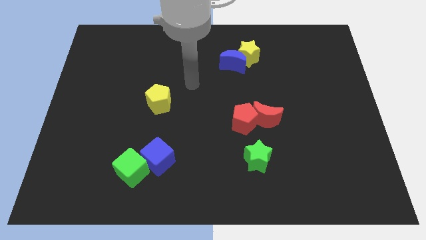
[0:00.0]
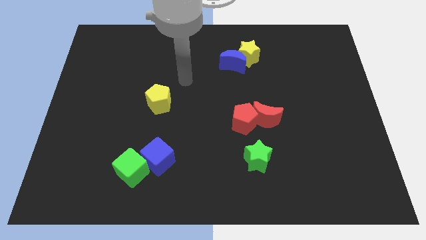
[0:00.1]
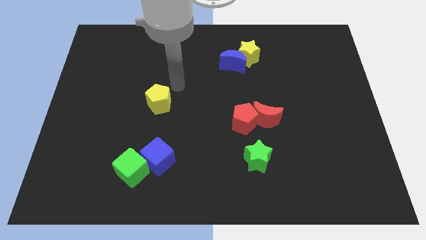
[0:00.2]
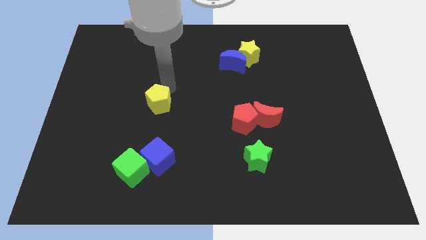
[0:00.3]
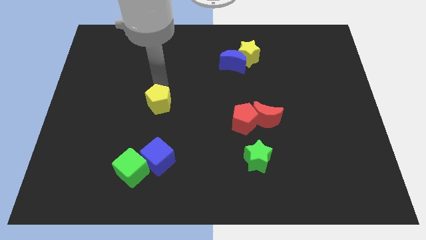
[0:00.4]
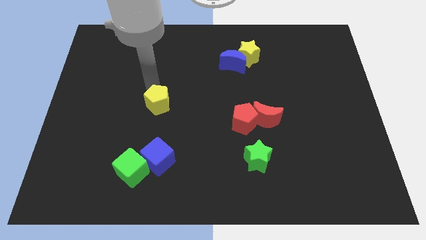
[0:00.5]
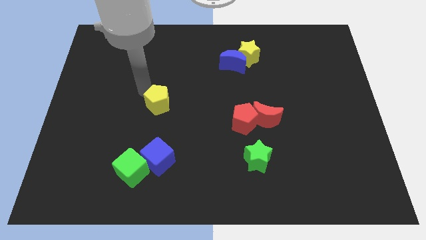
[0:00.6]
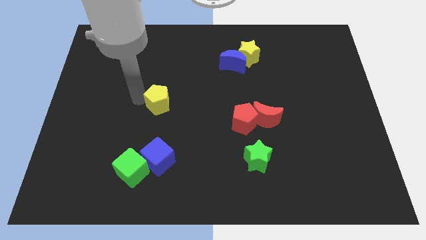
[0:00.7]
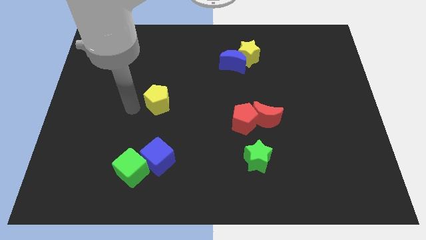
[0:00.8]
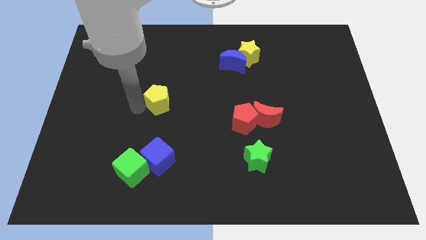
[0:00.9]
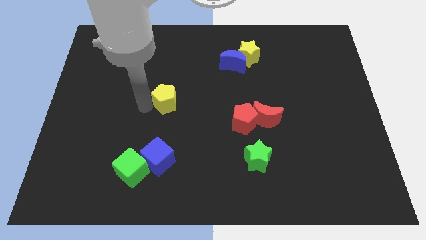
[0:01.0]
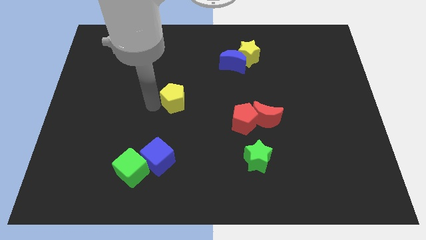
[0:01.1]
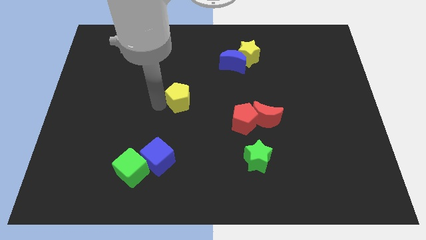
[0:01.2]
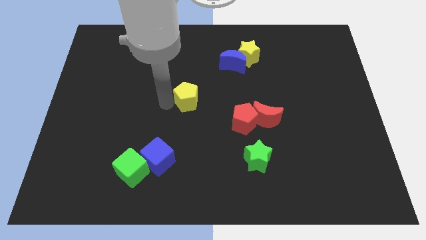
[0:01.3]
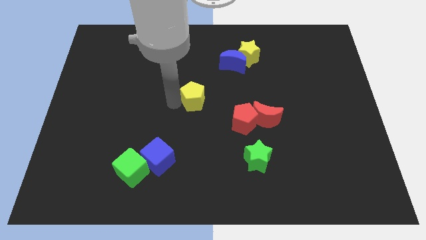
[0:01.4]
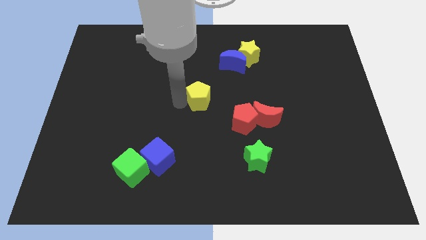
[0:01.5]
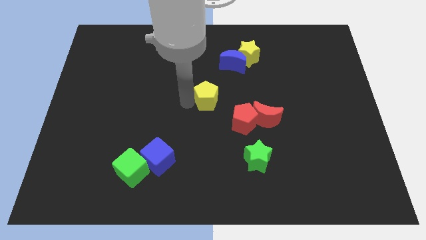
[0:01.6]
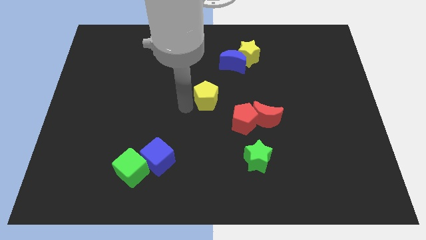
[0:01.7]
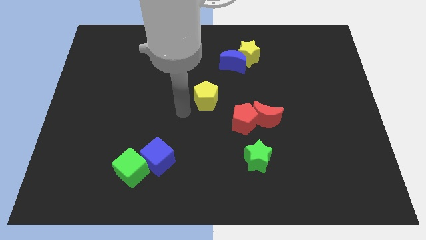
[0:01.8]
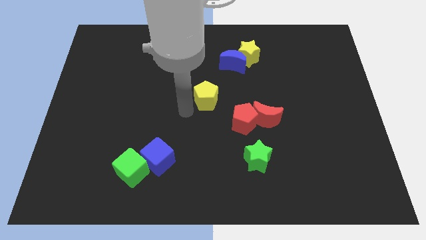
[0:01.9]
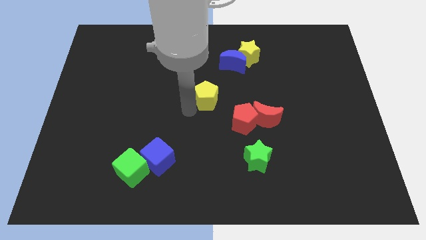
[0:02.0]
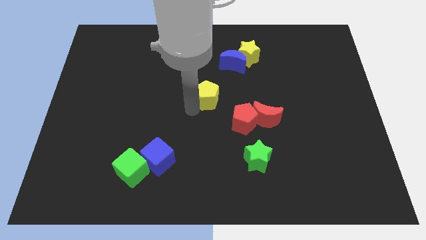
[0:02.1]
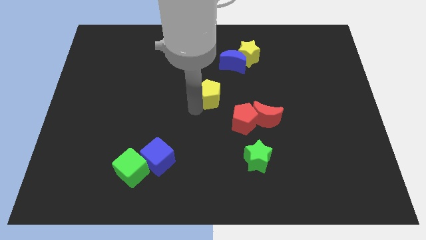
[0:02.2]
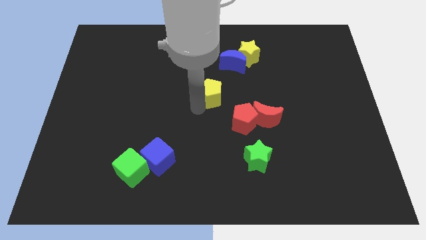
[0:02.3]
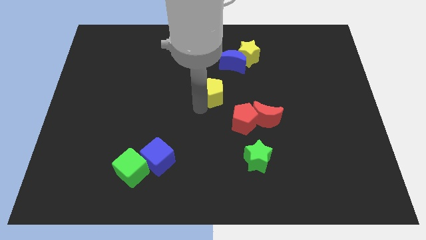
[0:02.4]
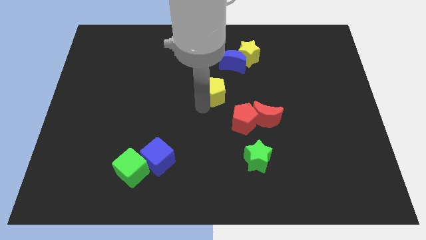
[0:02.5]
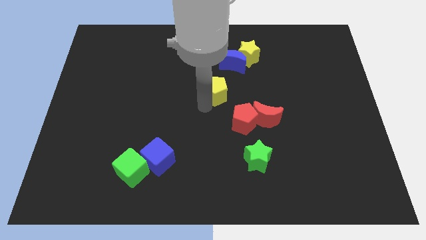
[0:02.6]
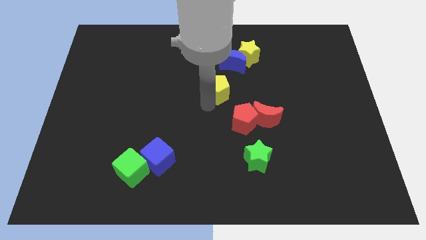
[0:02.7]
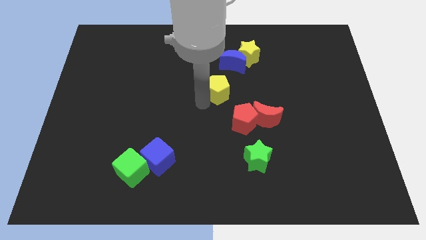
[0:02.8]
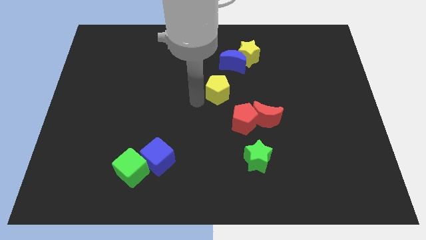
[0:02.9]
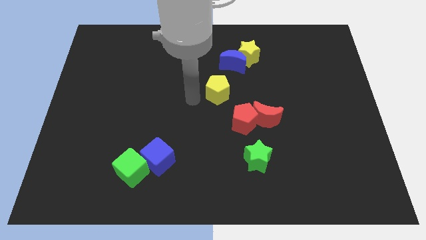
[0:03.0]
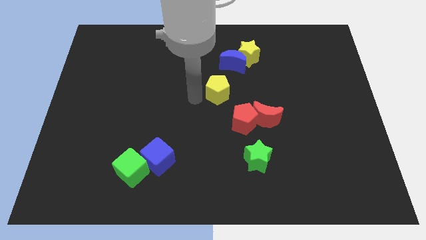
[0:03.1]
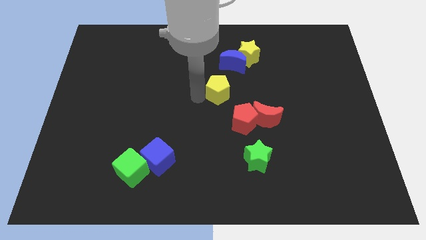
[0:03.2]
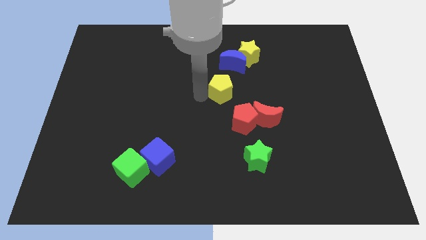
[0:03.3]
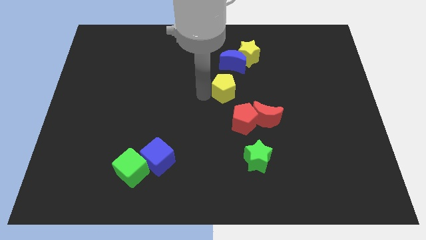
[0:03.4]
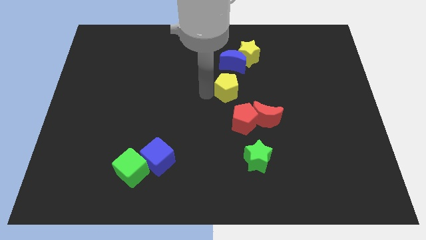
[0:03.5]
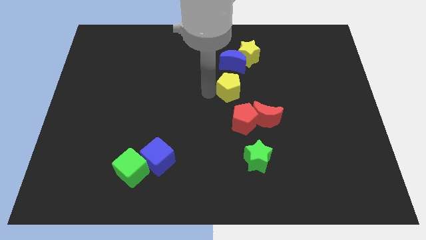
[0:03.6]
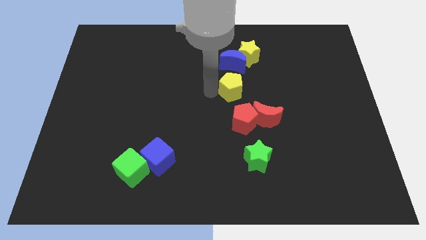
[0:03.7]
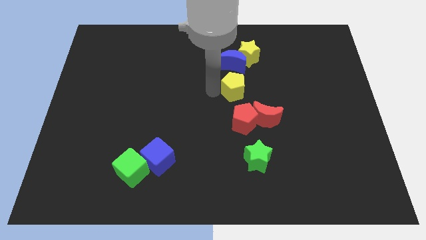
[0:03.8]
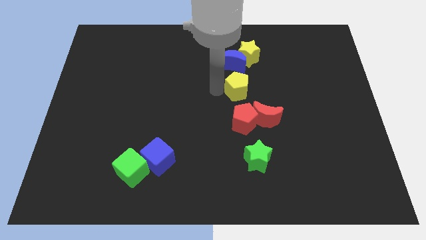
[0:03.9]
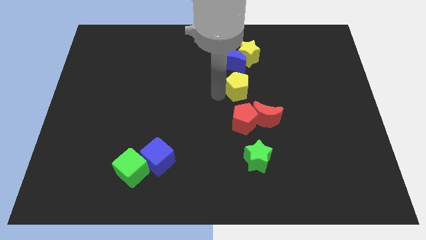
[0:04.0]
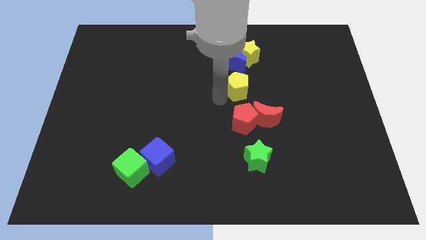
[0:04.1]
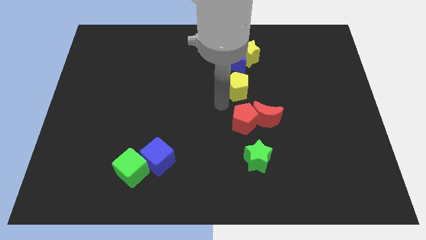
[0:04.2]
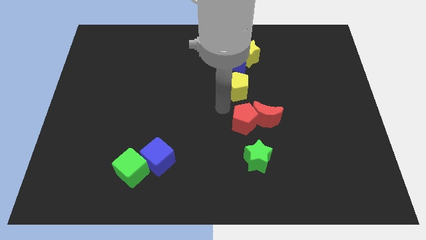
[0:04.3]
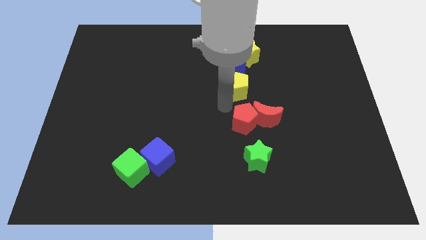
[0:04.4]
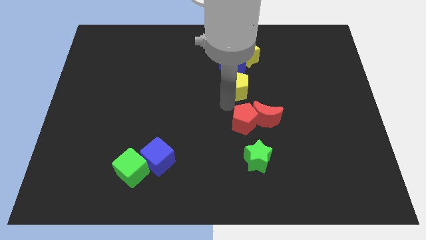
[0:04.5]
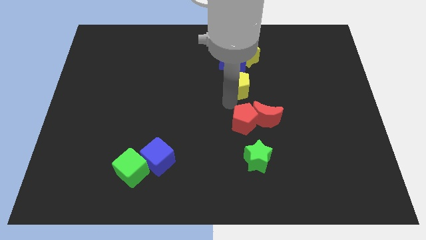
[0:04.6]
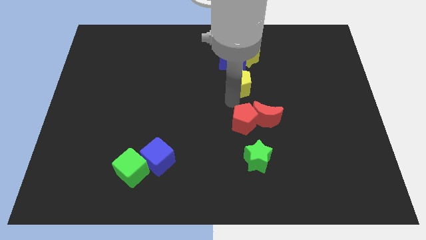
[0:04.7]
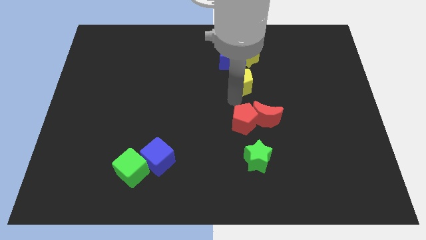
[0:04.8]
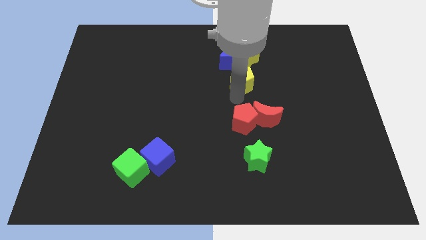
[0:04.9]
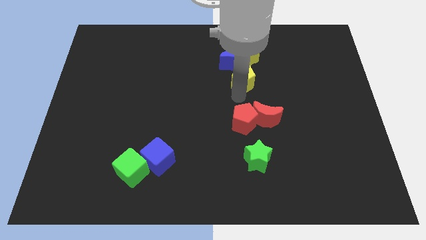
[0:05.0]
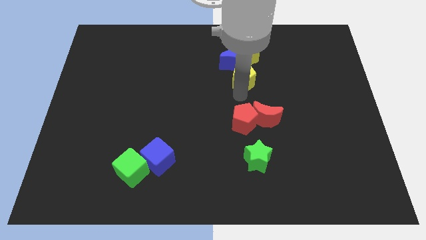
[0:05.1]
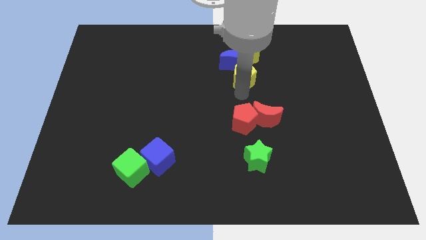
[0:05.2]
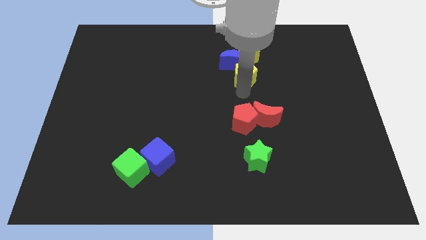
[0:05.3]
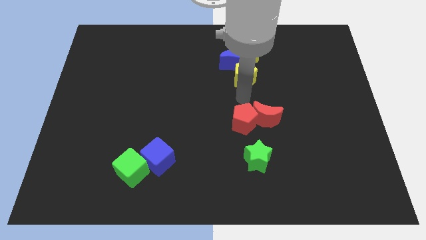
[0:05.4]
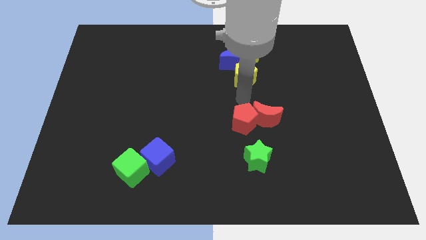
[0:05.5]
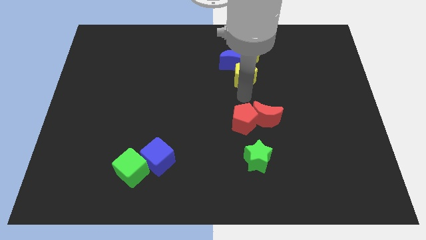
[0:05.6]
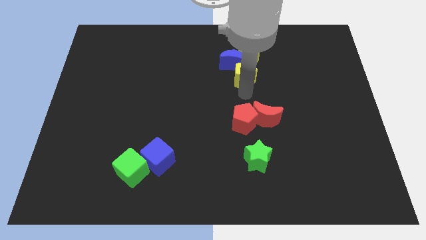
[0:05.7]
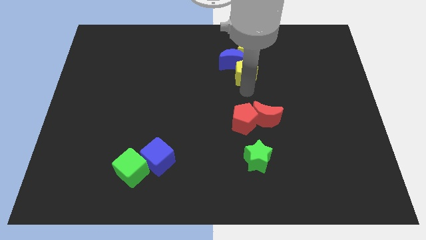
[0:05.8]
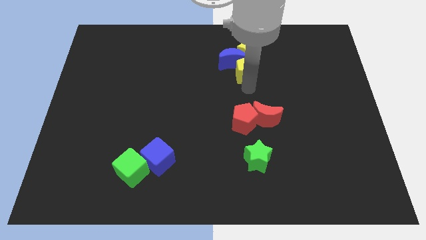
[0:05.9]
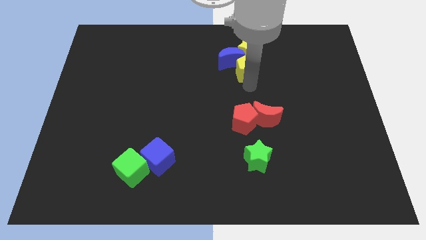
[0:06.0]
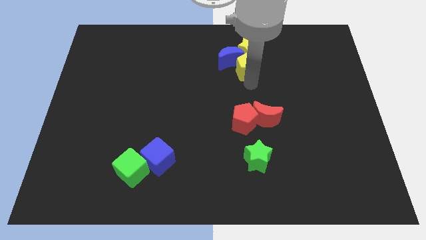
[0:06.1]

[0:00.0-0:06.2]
put the yellow pentagon close to the yellow star
